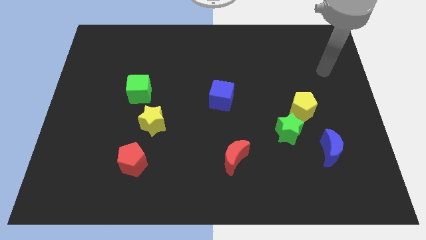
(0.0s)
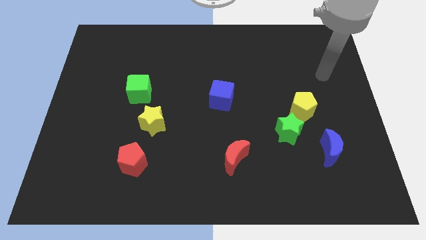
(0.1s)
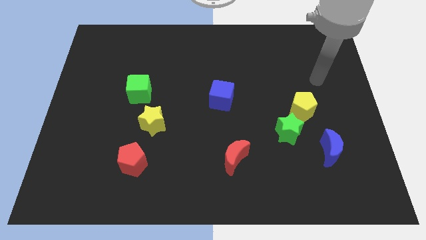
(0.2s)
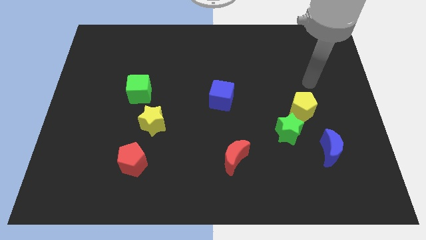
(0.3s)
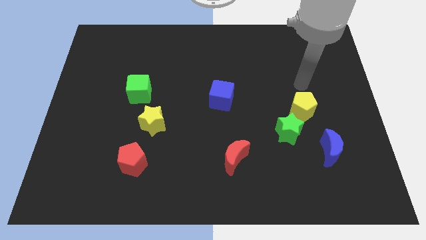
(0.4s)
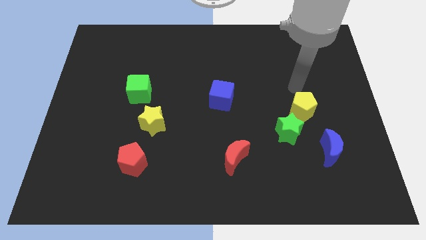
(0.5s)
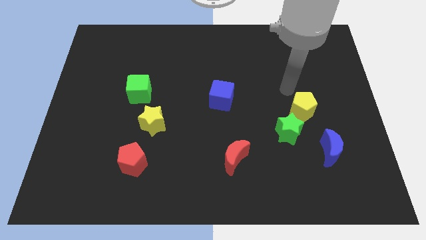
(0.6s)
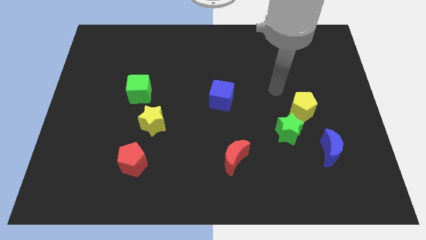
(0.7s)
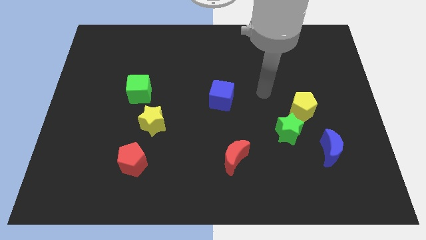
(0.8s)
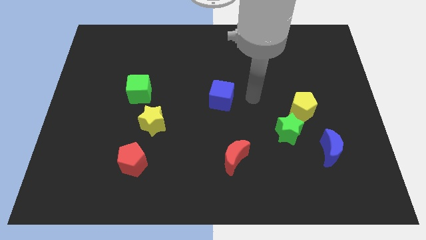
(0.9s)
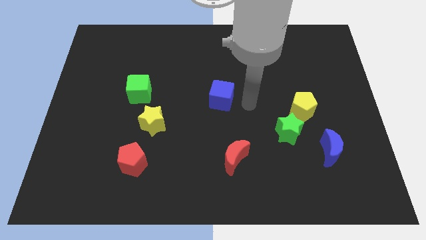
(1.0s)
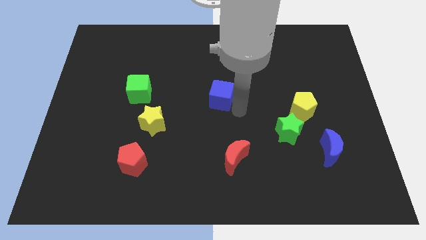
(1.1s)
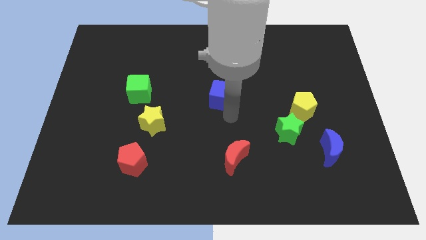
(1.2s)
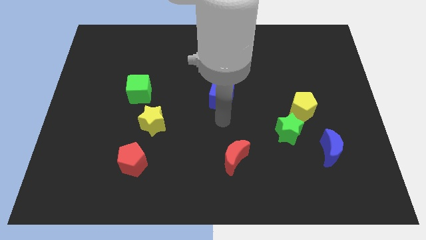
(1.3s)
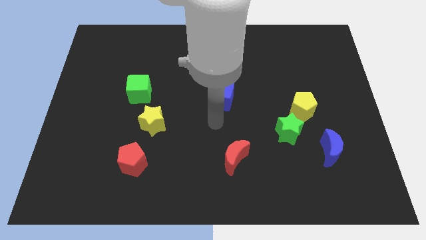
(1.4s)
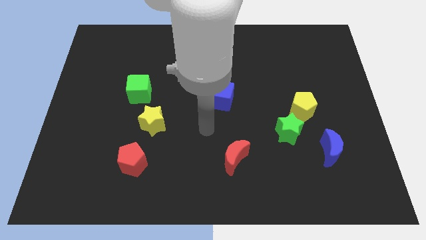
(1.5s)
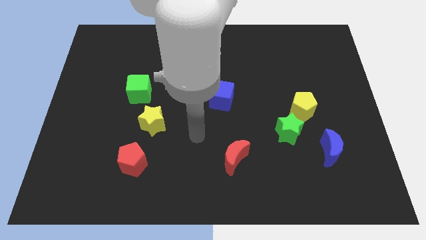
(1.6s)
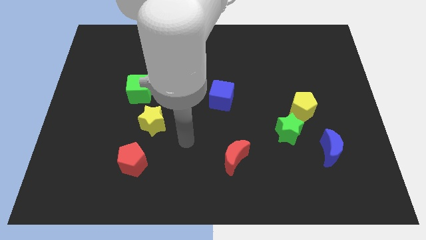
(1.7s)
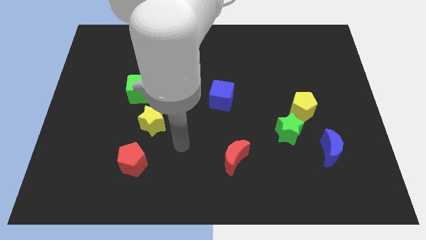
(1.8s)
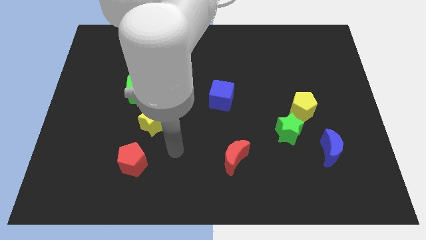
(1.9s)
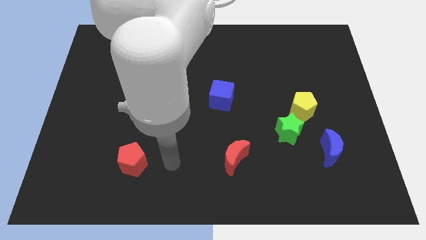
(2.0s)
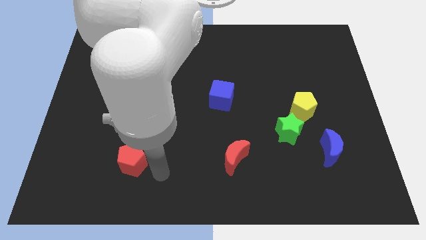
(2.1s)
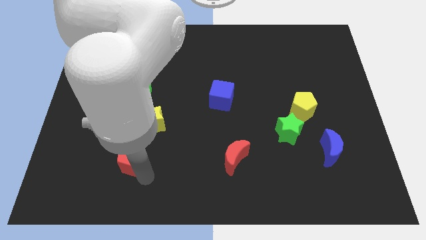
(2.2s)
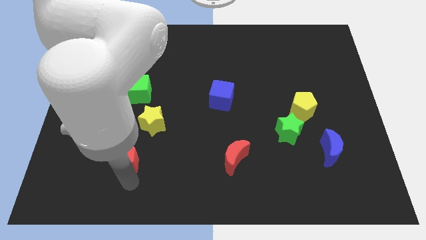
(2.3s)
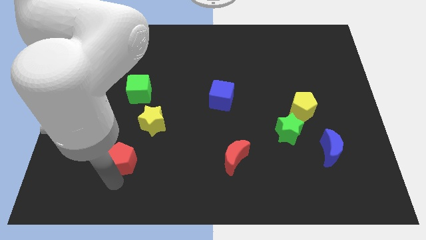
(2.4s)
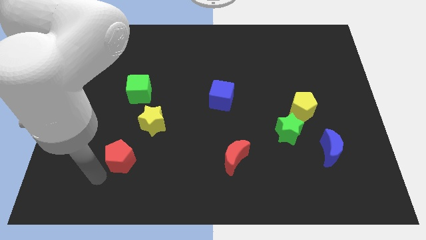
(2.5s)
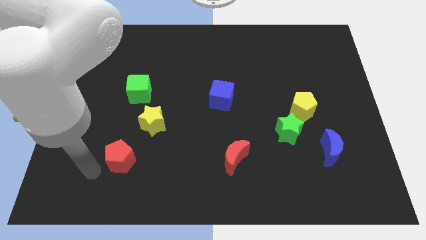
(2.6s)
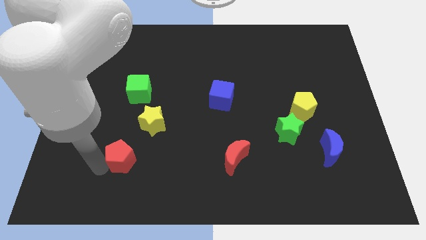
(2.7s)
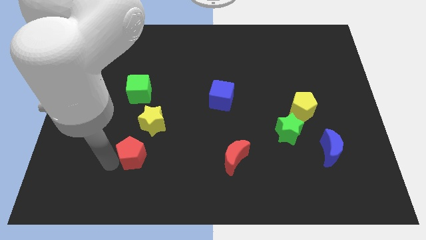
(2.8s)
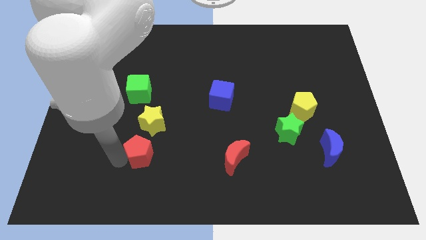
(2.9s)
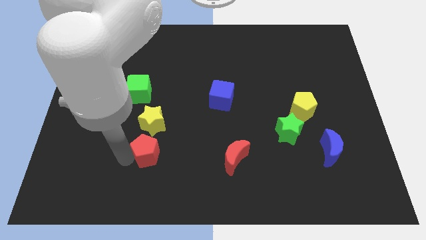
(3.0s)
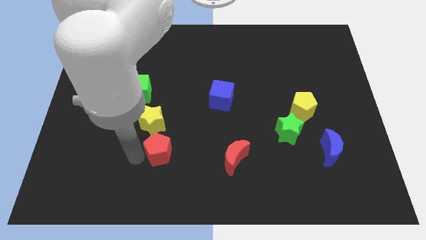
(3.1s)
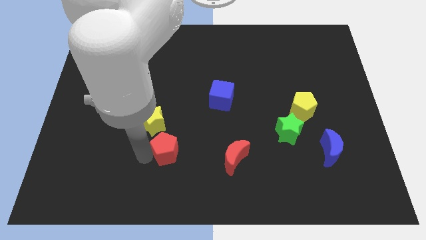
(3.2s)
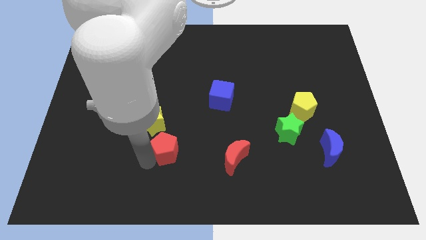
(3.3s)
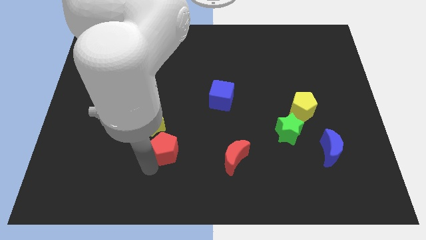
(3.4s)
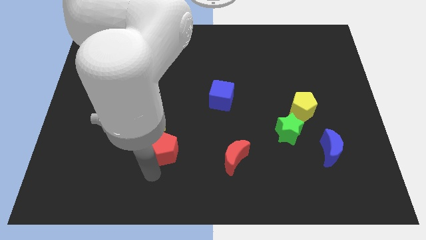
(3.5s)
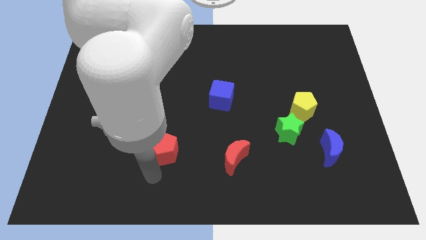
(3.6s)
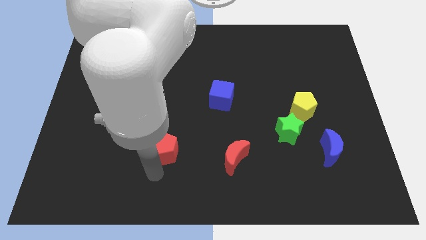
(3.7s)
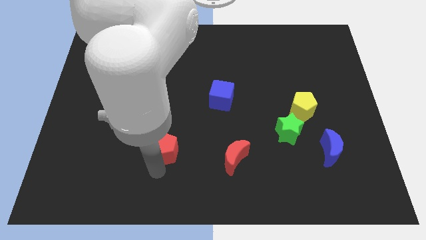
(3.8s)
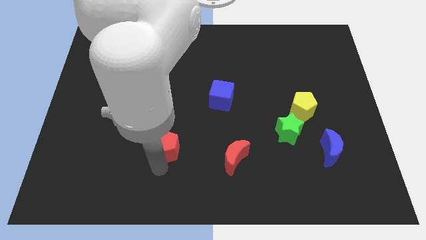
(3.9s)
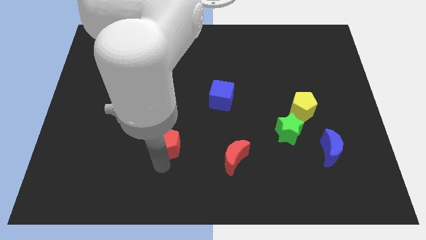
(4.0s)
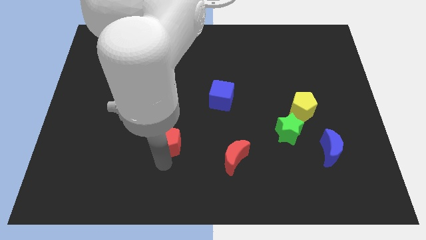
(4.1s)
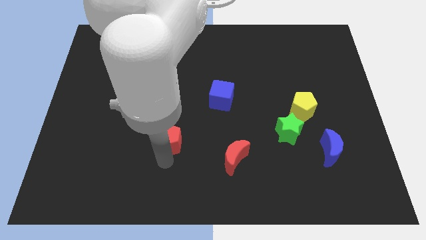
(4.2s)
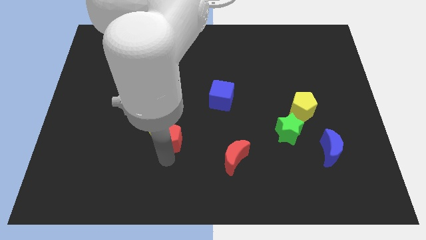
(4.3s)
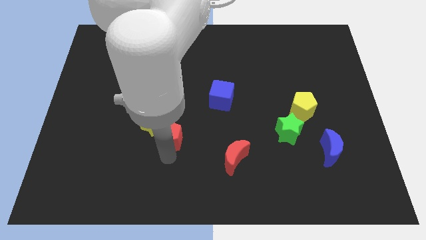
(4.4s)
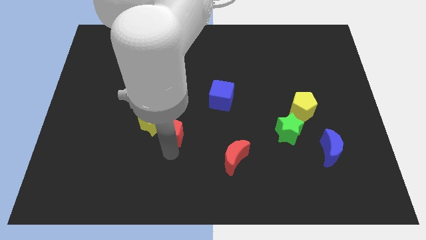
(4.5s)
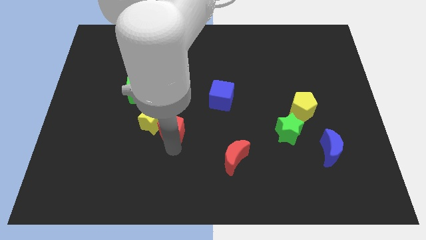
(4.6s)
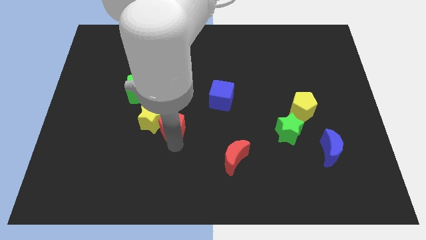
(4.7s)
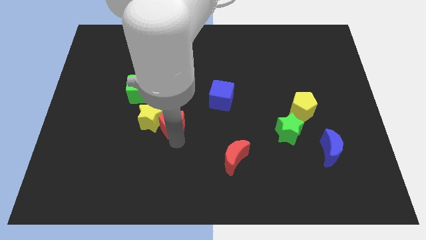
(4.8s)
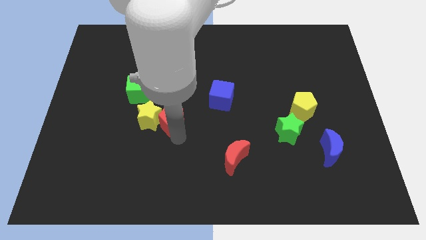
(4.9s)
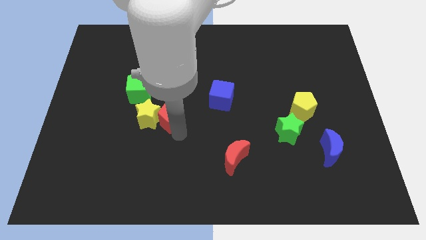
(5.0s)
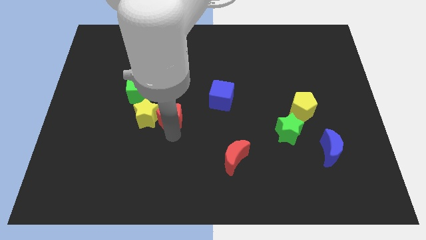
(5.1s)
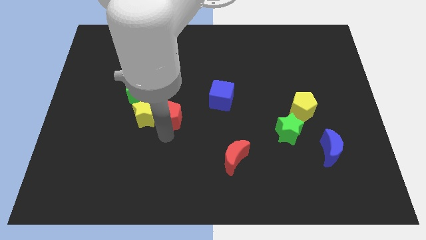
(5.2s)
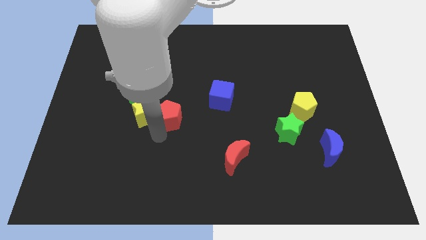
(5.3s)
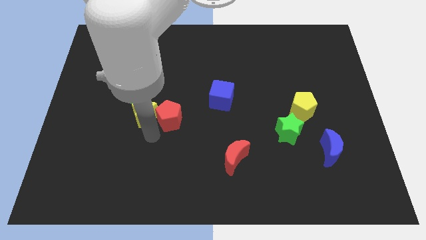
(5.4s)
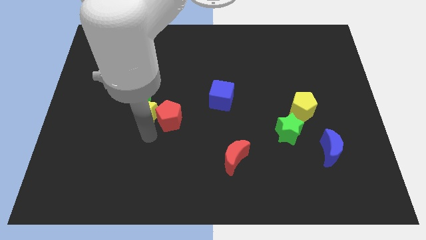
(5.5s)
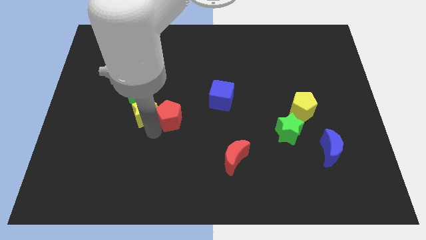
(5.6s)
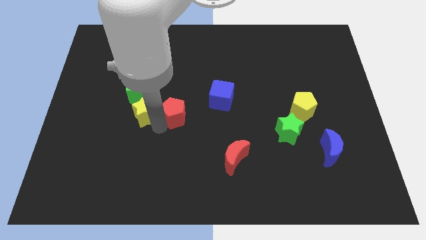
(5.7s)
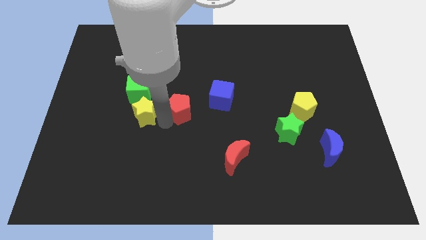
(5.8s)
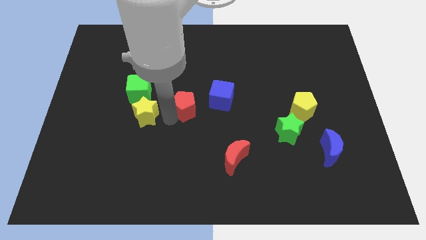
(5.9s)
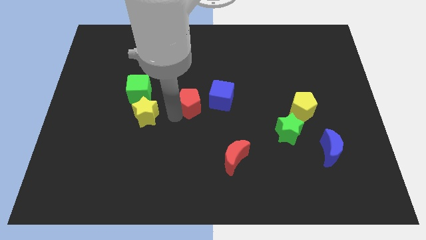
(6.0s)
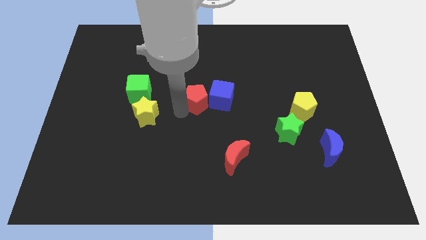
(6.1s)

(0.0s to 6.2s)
move the red pentagon up and right

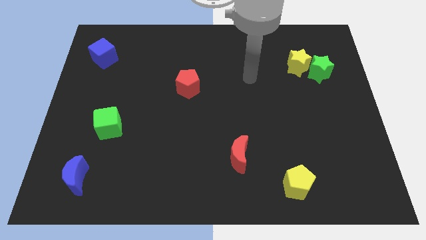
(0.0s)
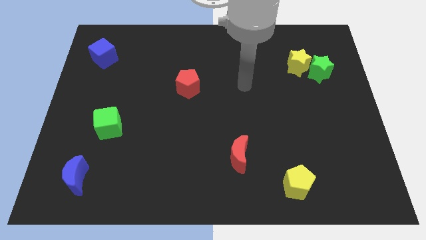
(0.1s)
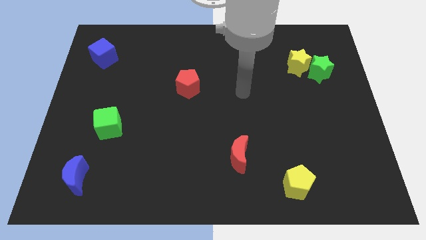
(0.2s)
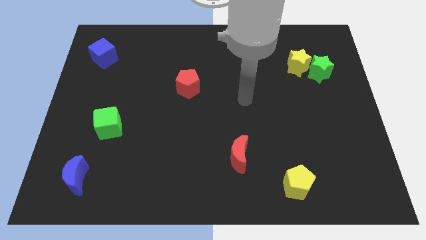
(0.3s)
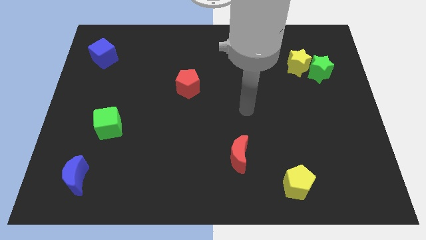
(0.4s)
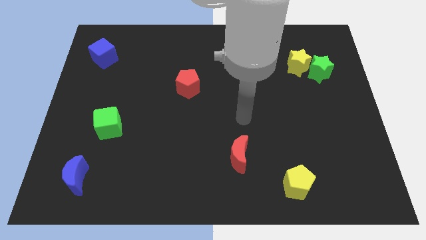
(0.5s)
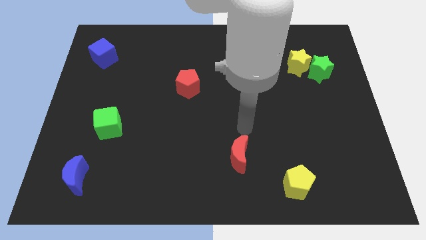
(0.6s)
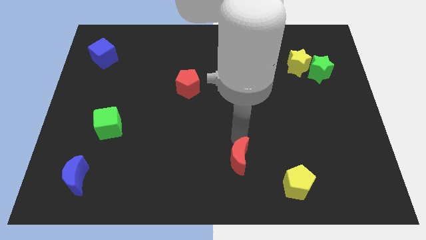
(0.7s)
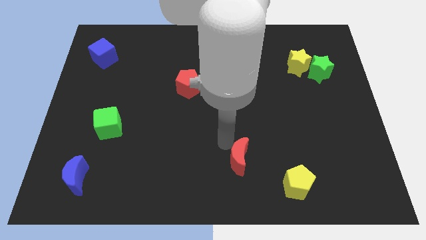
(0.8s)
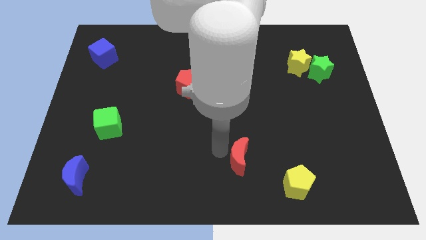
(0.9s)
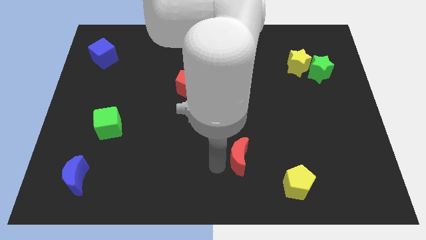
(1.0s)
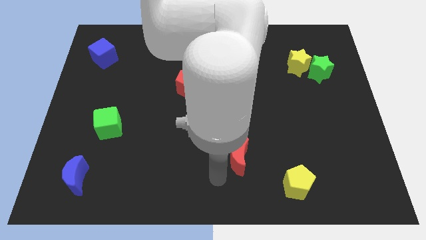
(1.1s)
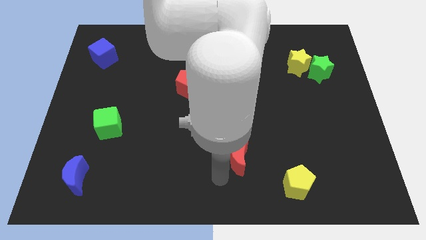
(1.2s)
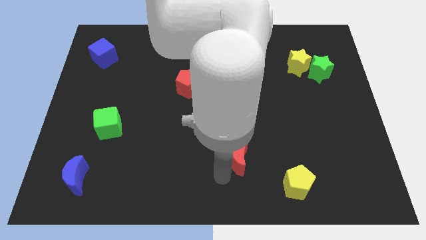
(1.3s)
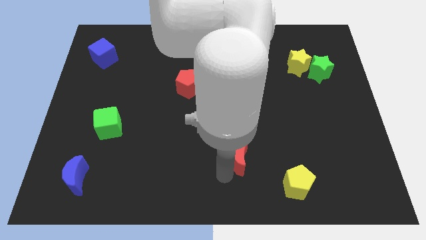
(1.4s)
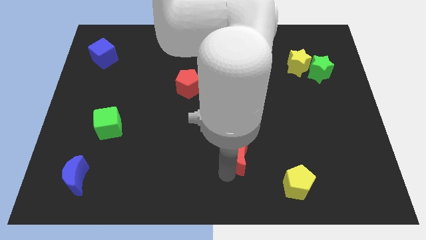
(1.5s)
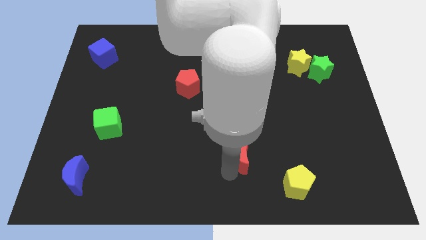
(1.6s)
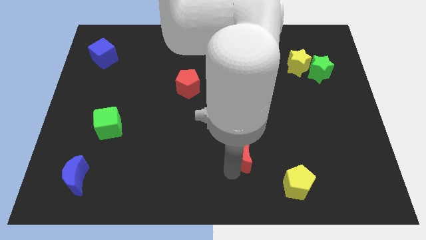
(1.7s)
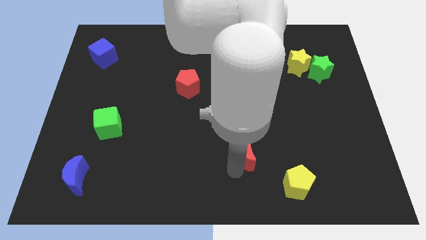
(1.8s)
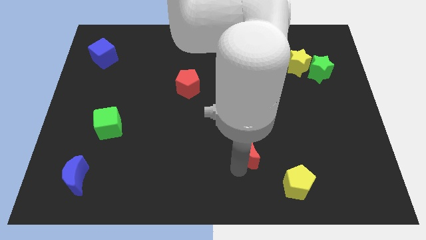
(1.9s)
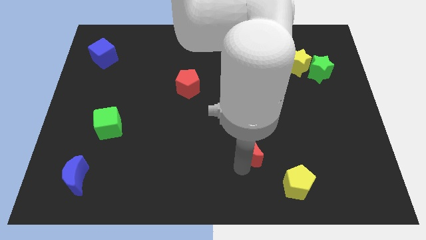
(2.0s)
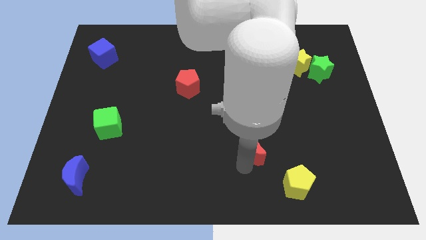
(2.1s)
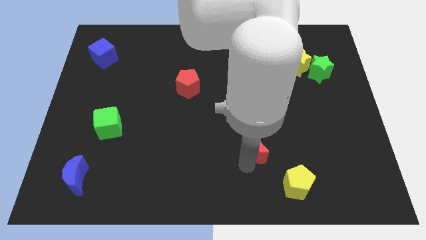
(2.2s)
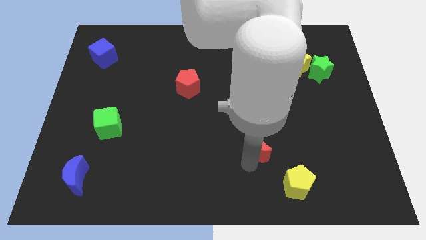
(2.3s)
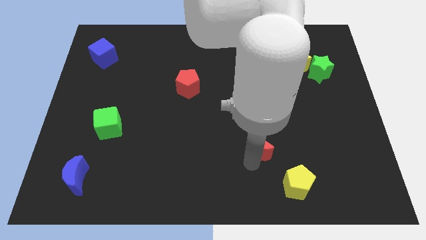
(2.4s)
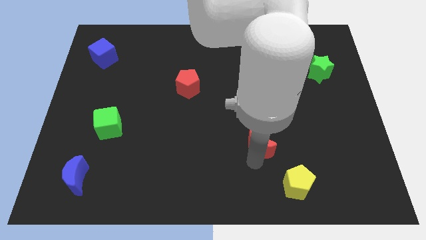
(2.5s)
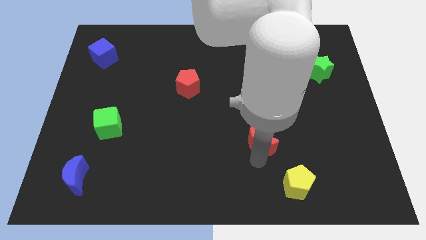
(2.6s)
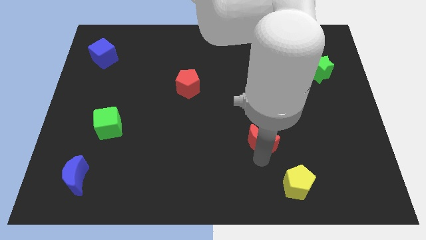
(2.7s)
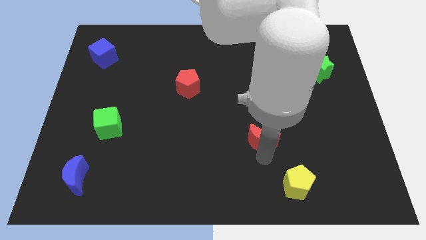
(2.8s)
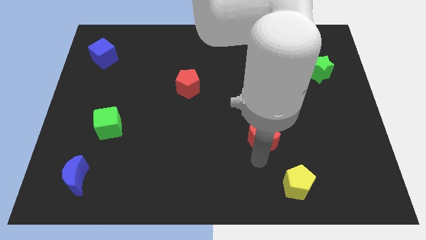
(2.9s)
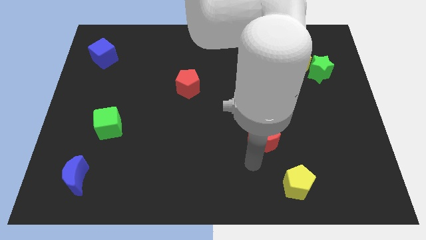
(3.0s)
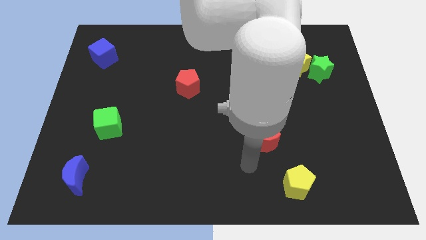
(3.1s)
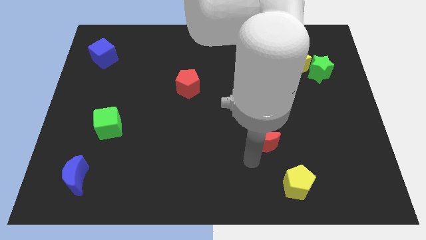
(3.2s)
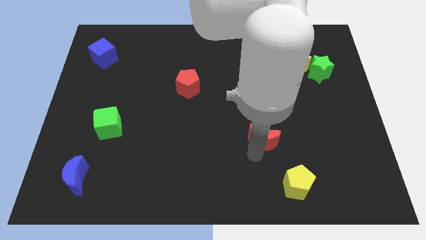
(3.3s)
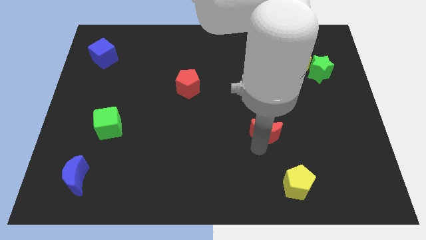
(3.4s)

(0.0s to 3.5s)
slide the red moon a bit upwards and right diagonally
